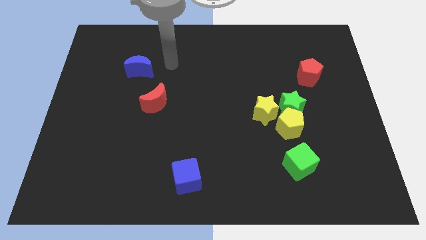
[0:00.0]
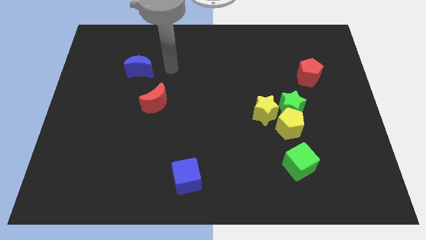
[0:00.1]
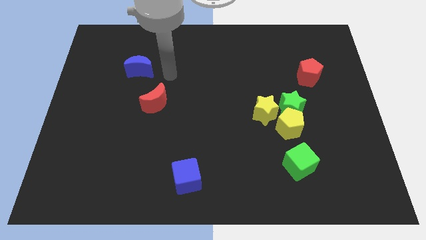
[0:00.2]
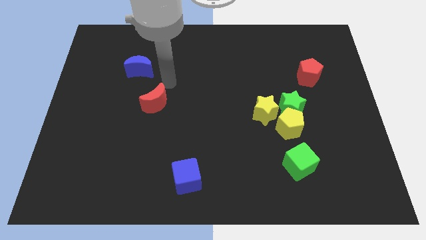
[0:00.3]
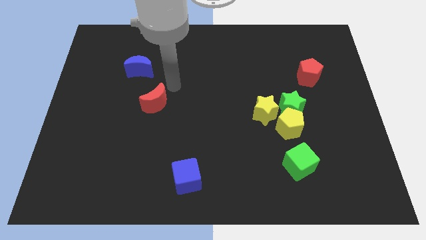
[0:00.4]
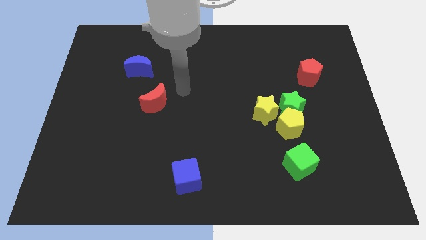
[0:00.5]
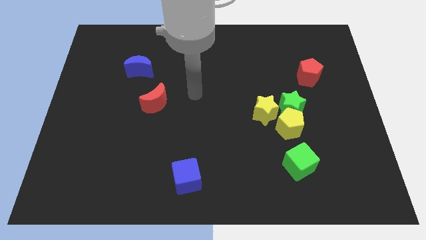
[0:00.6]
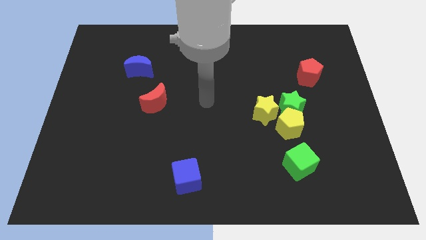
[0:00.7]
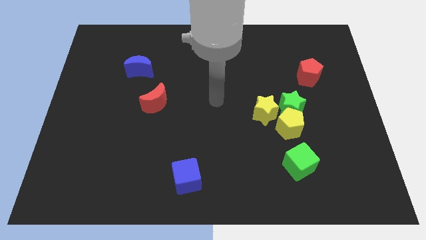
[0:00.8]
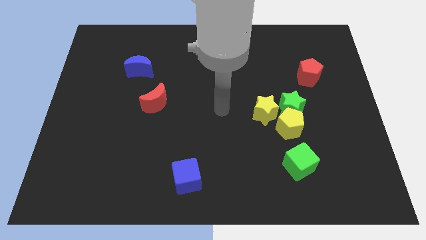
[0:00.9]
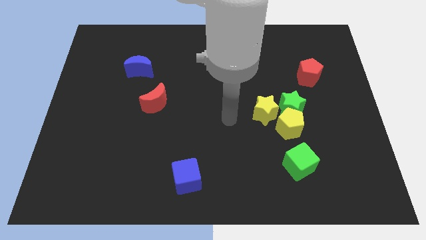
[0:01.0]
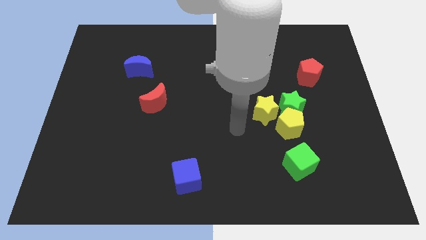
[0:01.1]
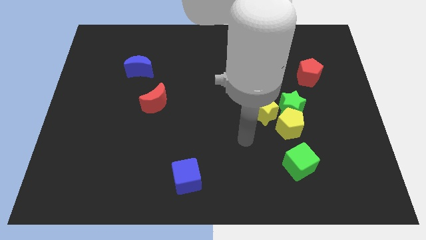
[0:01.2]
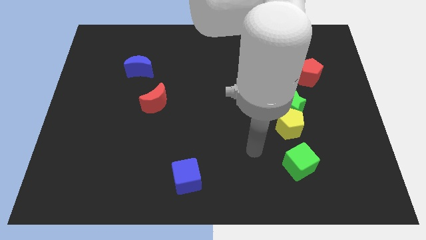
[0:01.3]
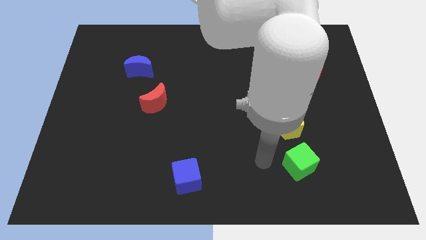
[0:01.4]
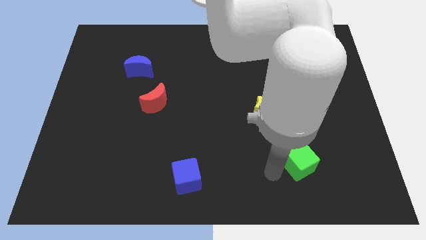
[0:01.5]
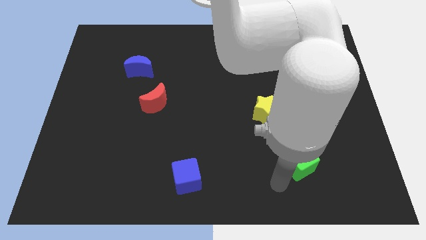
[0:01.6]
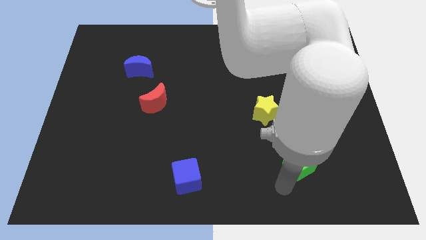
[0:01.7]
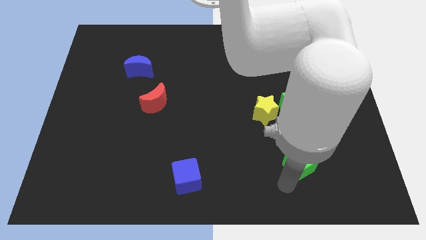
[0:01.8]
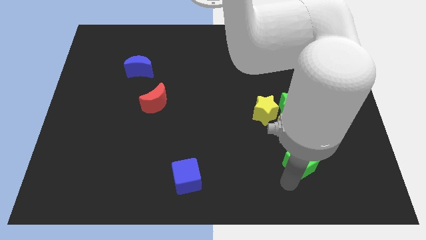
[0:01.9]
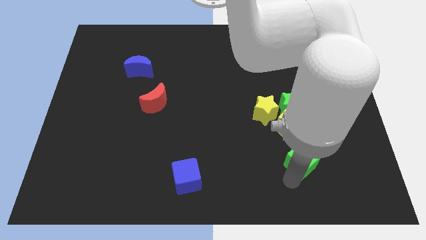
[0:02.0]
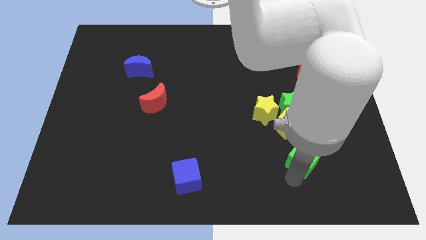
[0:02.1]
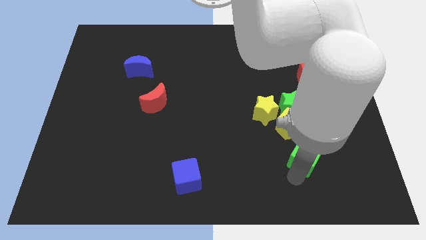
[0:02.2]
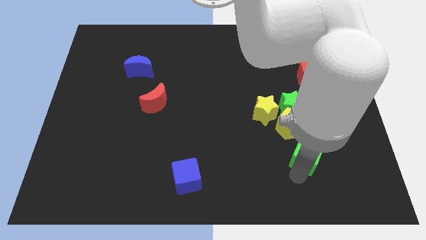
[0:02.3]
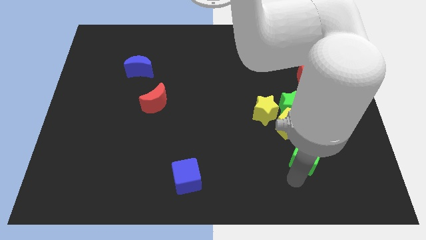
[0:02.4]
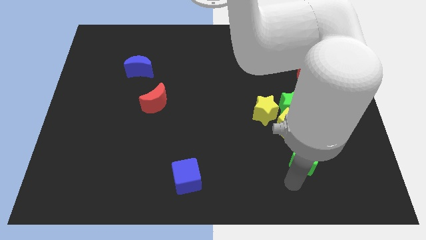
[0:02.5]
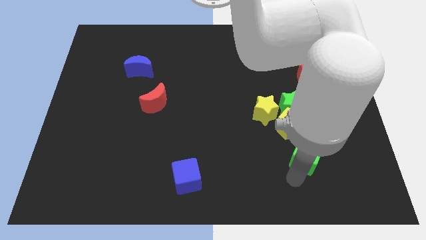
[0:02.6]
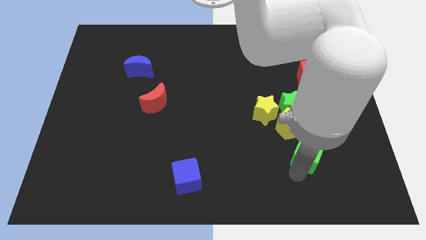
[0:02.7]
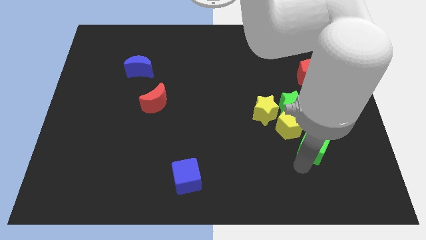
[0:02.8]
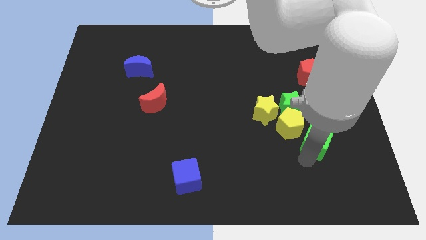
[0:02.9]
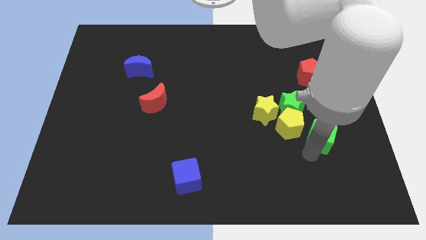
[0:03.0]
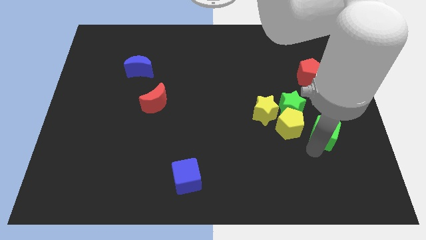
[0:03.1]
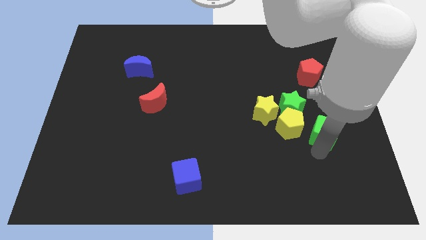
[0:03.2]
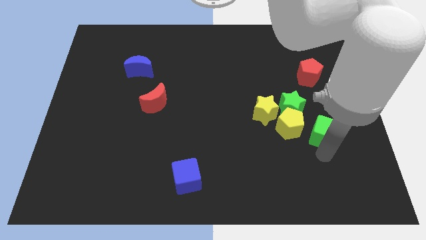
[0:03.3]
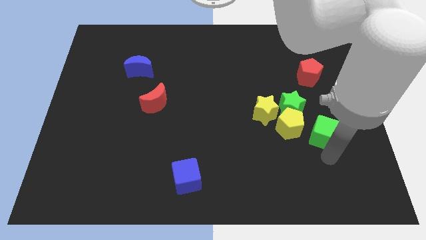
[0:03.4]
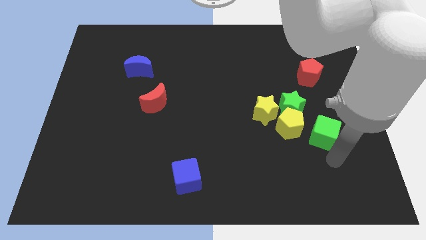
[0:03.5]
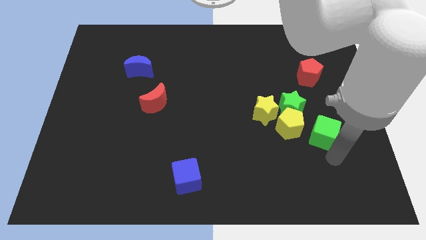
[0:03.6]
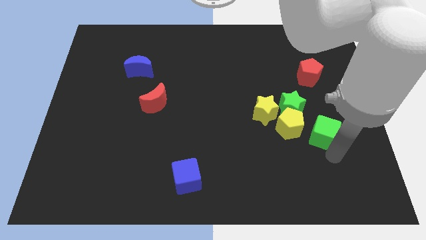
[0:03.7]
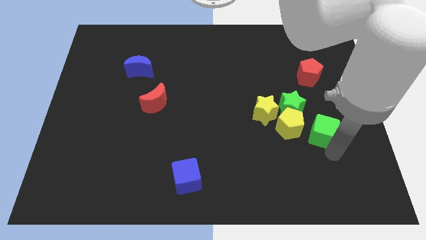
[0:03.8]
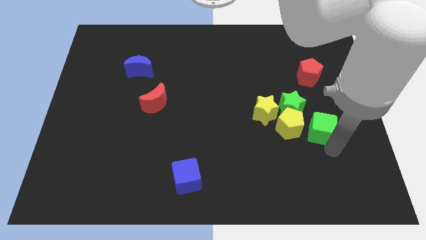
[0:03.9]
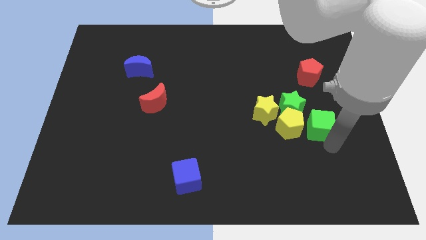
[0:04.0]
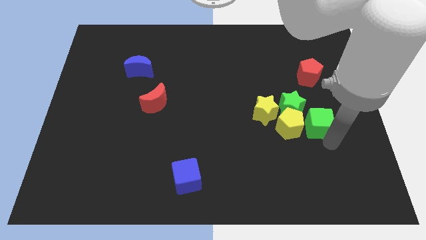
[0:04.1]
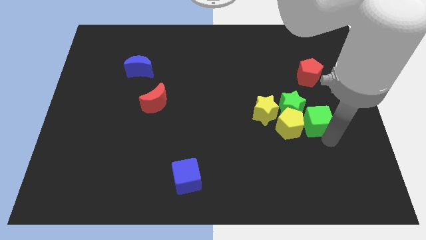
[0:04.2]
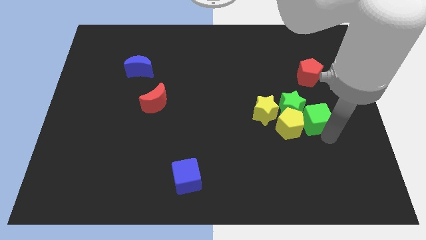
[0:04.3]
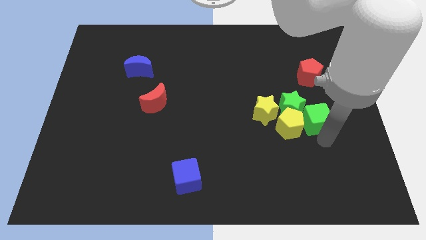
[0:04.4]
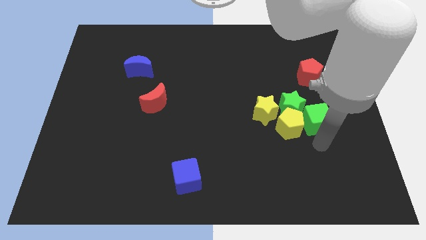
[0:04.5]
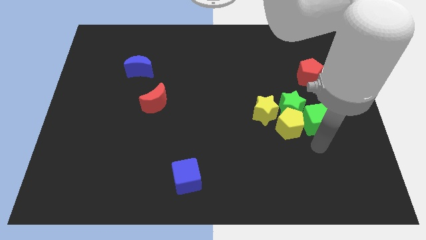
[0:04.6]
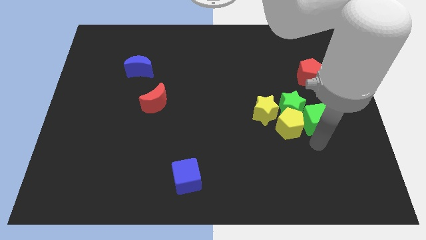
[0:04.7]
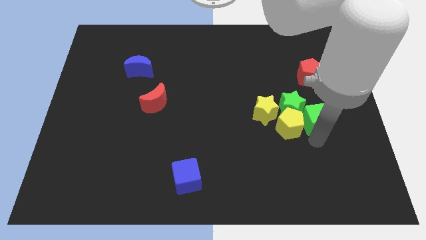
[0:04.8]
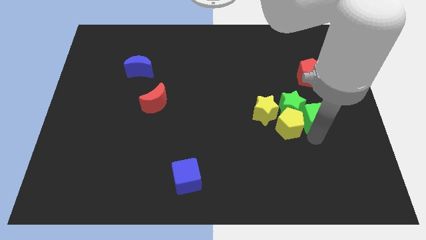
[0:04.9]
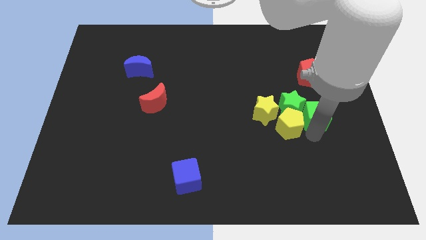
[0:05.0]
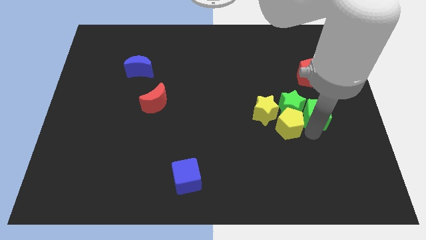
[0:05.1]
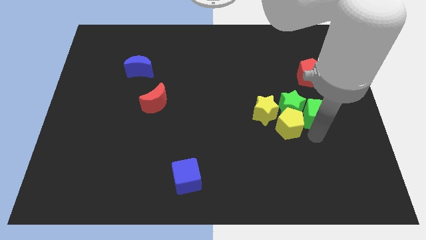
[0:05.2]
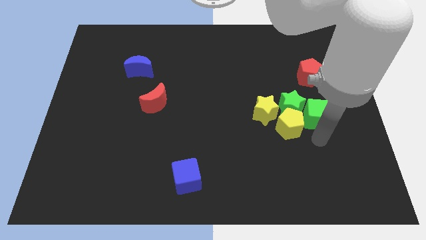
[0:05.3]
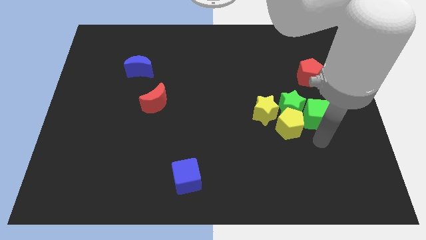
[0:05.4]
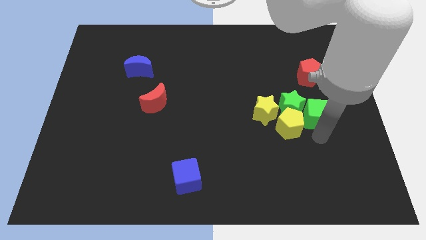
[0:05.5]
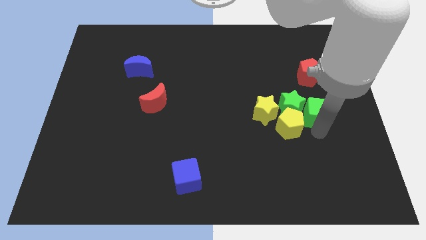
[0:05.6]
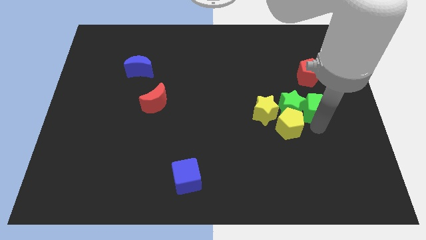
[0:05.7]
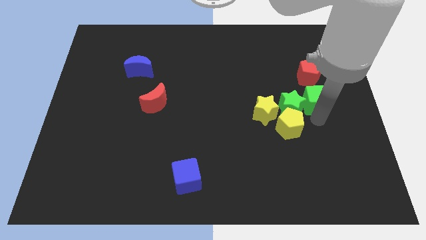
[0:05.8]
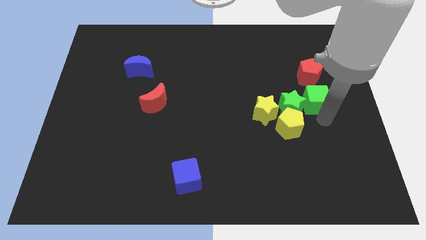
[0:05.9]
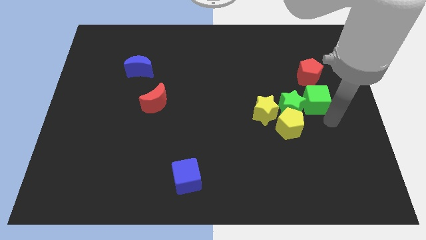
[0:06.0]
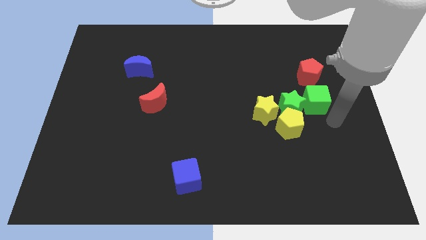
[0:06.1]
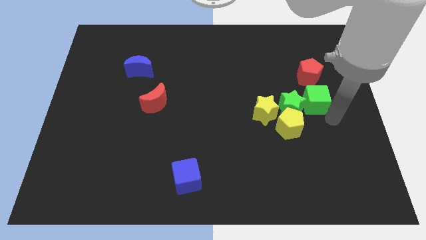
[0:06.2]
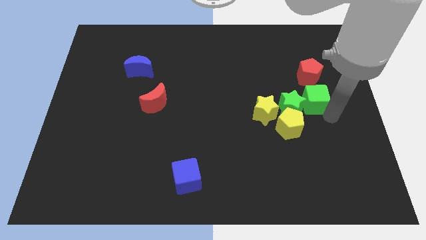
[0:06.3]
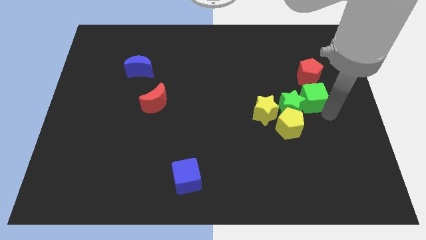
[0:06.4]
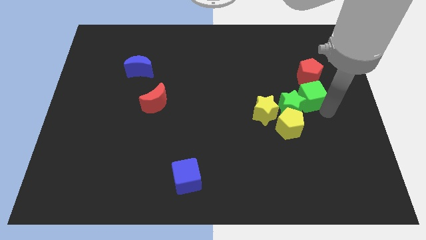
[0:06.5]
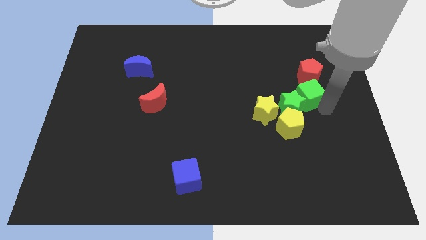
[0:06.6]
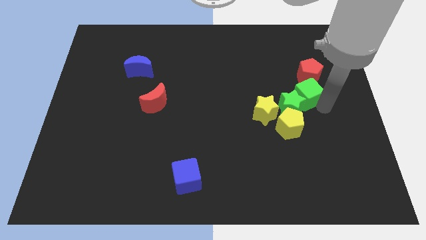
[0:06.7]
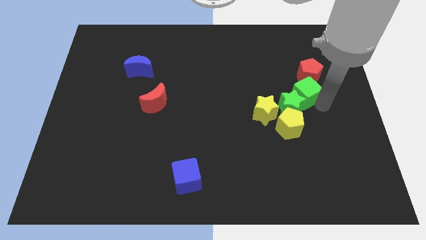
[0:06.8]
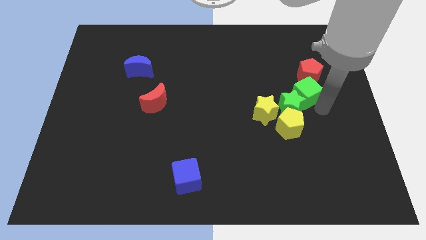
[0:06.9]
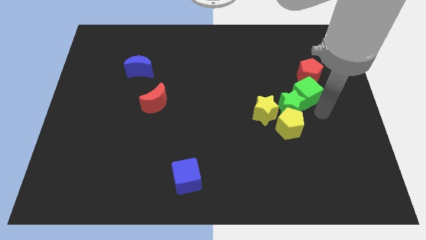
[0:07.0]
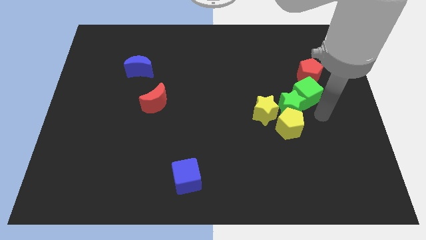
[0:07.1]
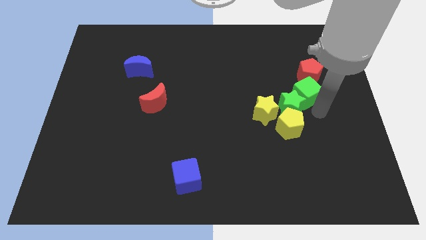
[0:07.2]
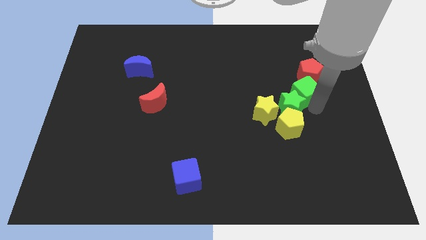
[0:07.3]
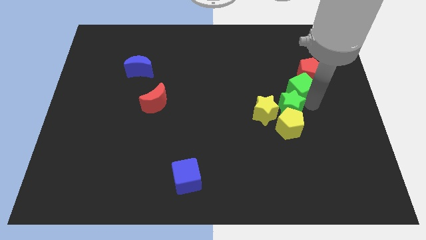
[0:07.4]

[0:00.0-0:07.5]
slide the green cube upwards

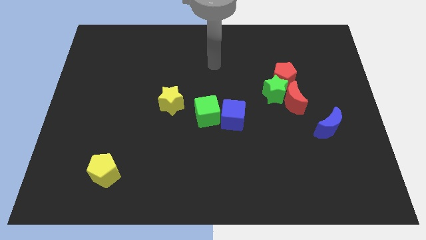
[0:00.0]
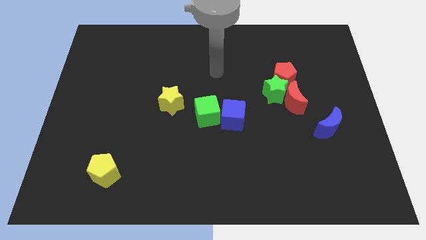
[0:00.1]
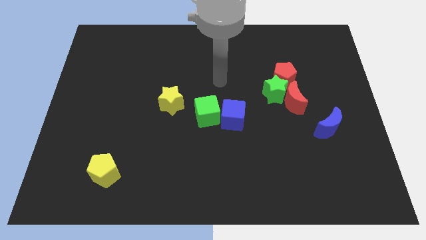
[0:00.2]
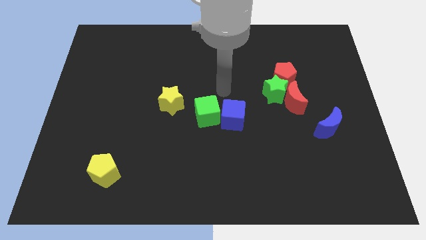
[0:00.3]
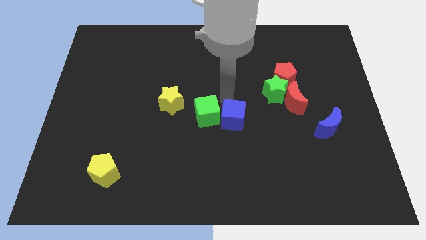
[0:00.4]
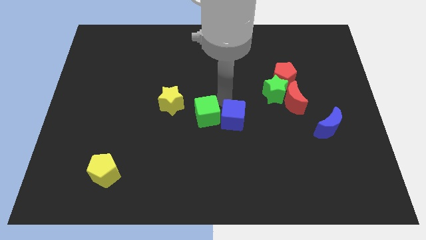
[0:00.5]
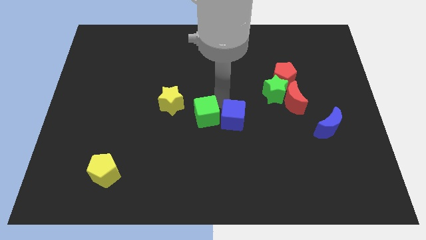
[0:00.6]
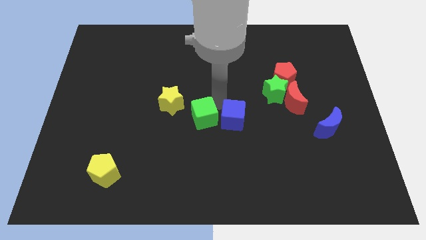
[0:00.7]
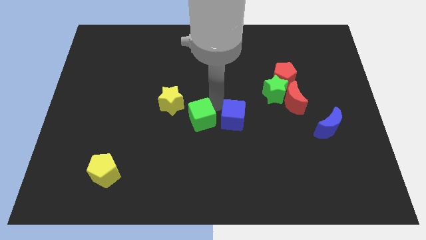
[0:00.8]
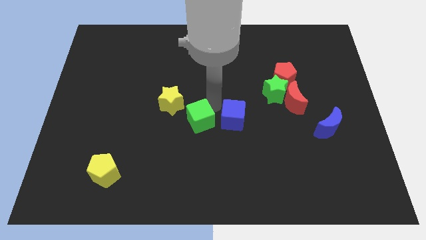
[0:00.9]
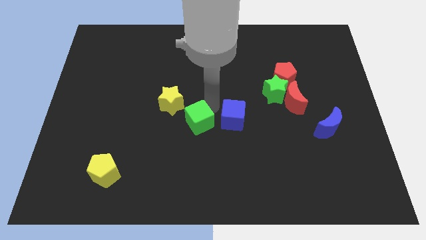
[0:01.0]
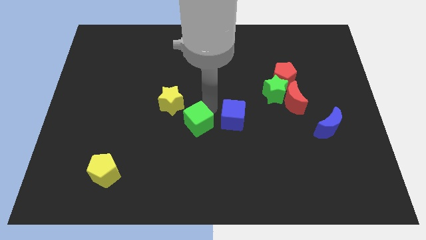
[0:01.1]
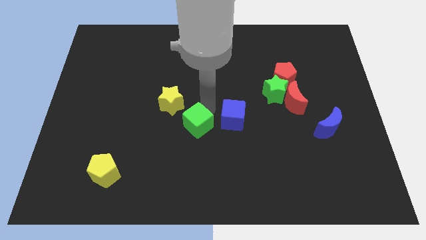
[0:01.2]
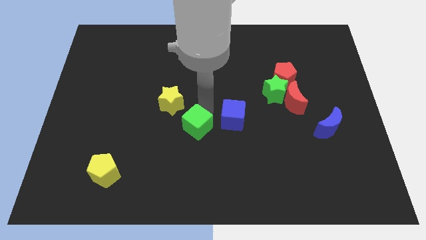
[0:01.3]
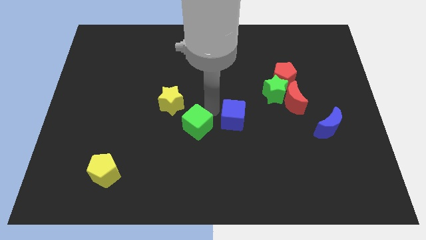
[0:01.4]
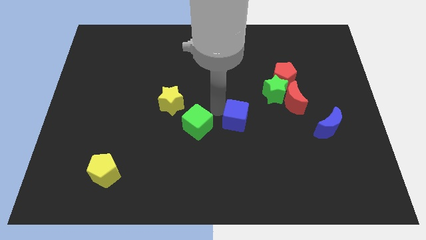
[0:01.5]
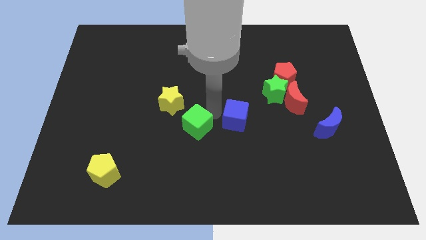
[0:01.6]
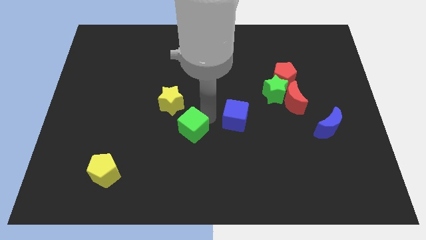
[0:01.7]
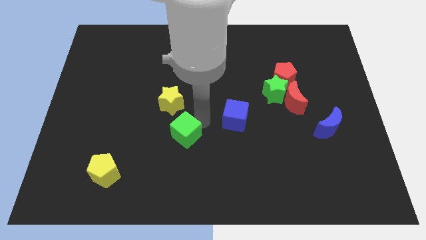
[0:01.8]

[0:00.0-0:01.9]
slightly move the green cube diagonally down and left
